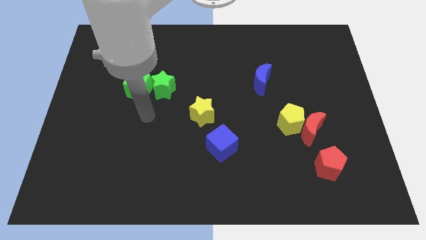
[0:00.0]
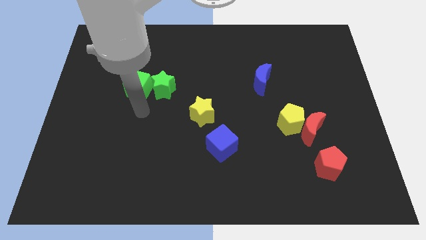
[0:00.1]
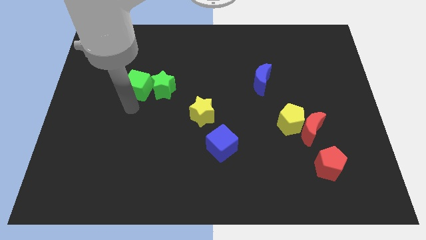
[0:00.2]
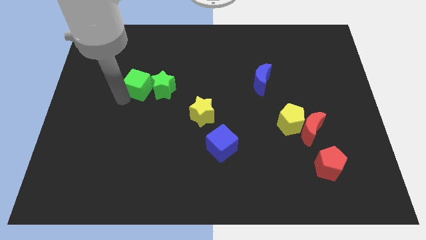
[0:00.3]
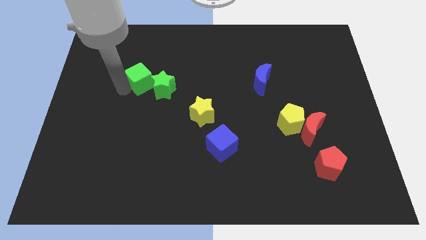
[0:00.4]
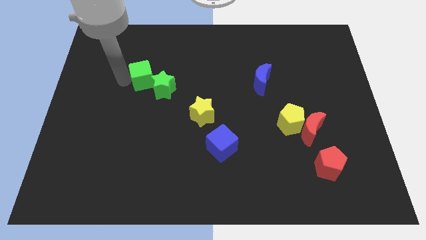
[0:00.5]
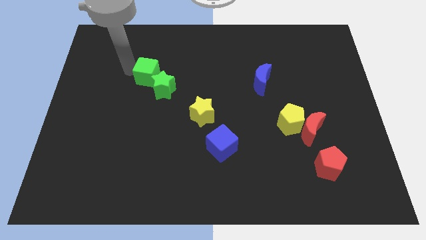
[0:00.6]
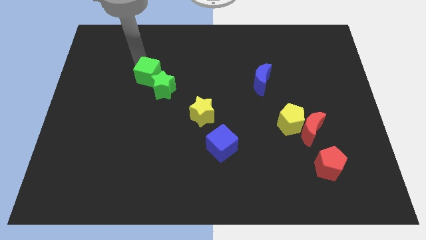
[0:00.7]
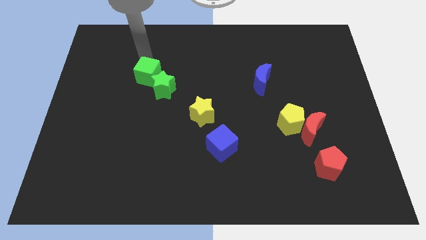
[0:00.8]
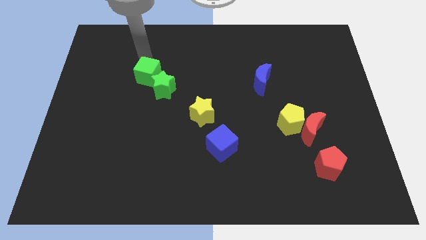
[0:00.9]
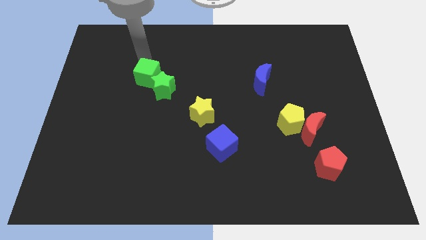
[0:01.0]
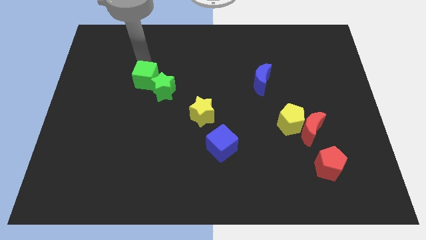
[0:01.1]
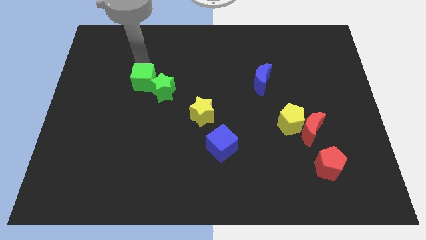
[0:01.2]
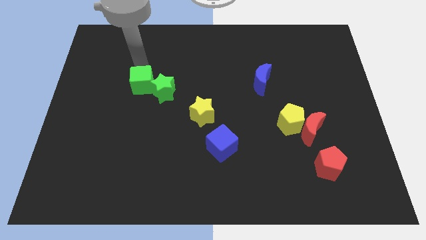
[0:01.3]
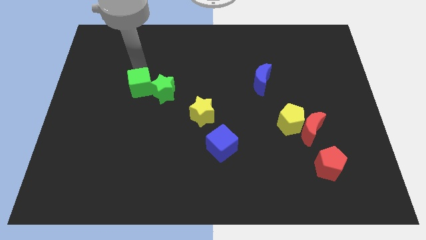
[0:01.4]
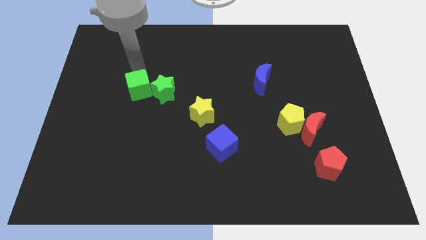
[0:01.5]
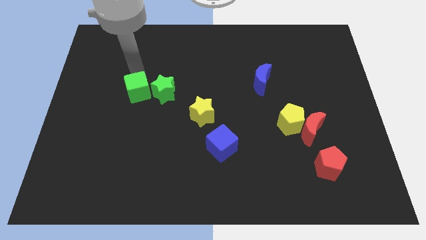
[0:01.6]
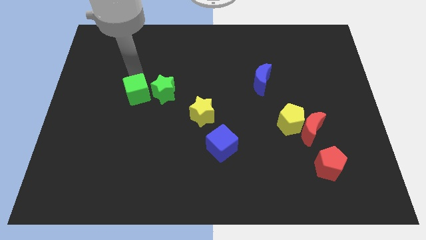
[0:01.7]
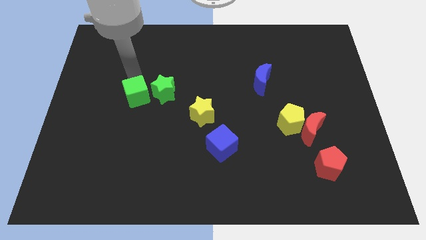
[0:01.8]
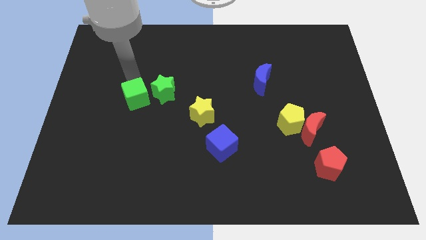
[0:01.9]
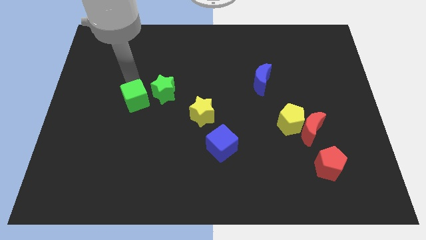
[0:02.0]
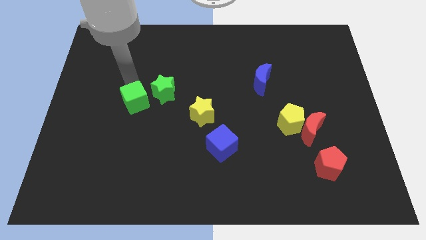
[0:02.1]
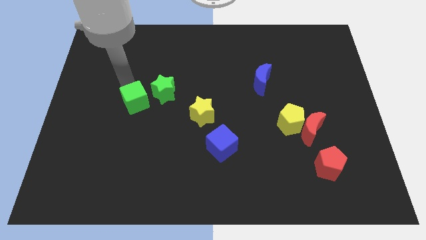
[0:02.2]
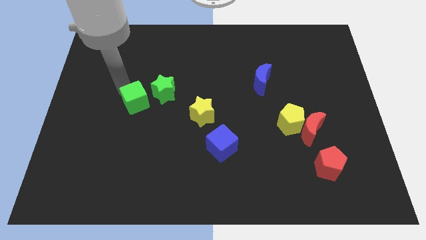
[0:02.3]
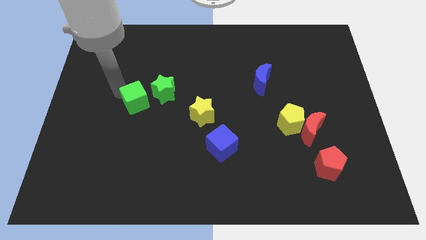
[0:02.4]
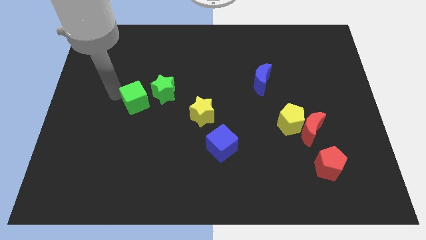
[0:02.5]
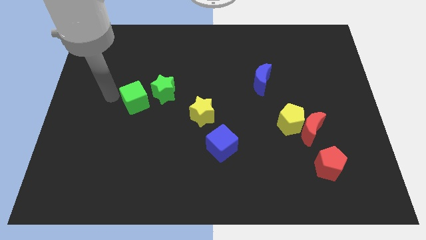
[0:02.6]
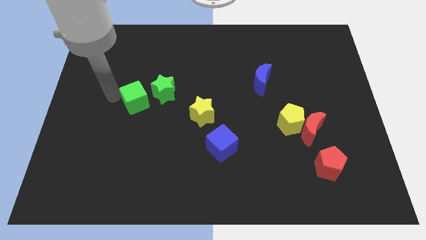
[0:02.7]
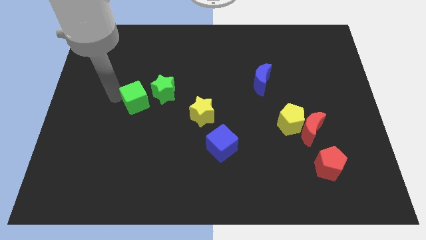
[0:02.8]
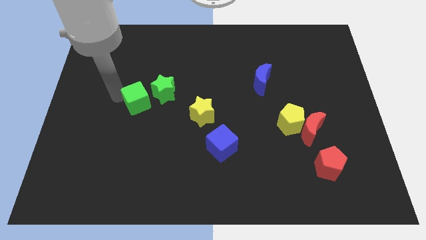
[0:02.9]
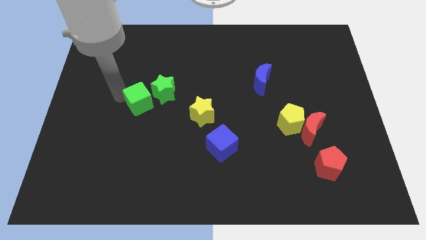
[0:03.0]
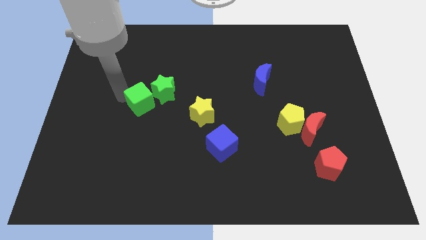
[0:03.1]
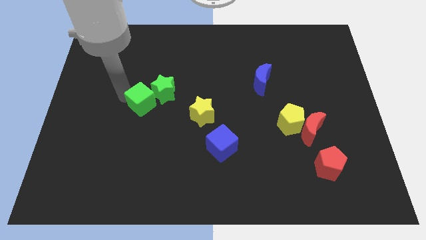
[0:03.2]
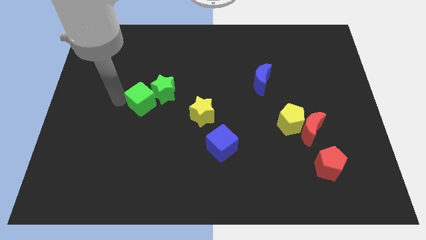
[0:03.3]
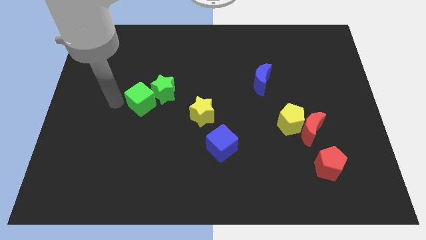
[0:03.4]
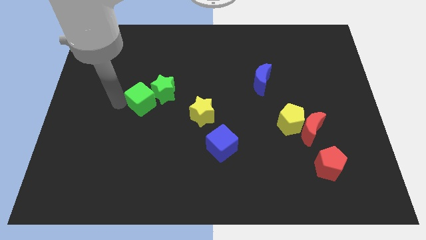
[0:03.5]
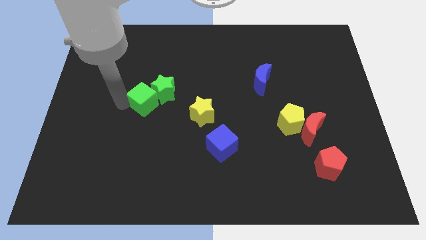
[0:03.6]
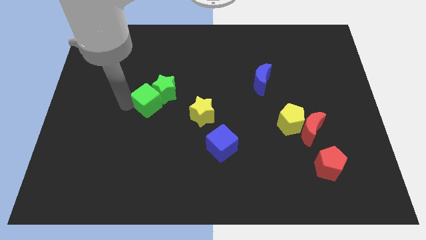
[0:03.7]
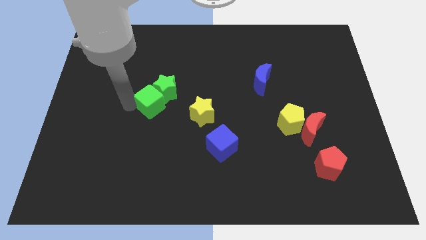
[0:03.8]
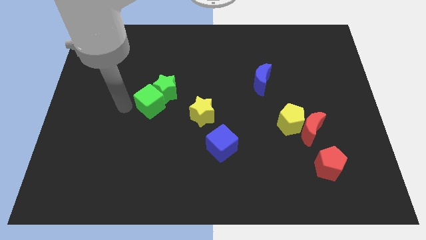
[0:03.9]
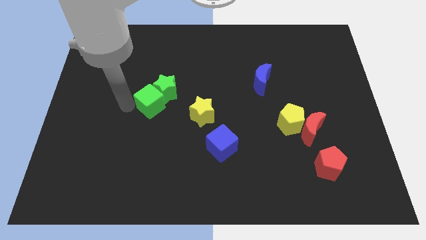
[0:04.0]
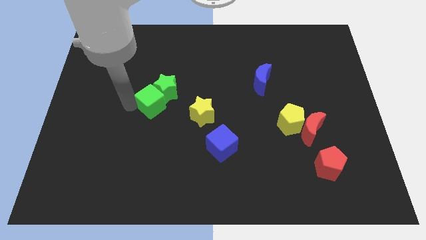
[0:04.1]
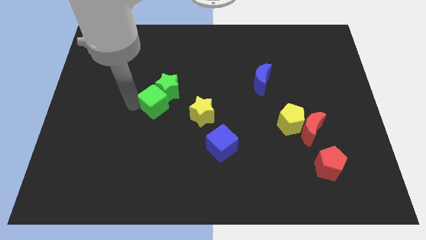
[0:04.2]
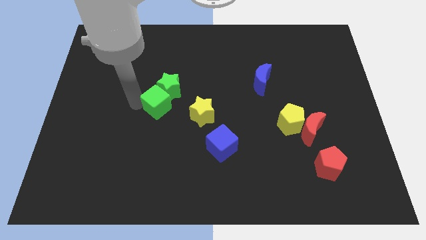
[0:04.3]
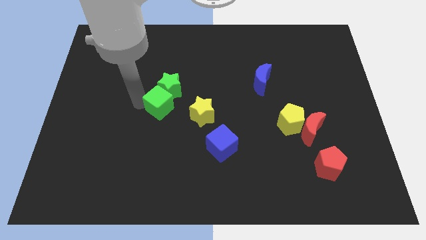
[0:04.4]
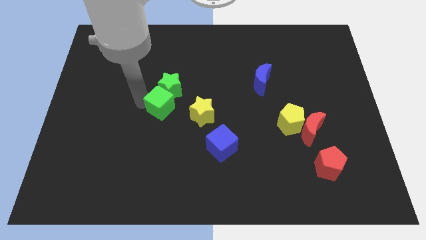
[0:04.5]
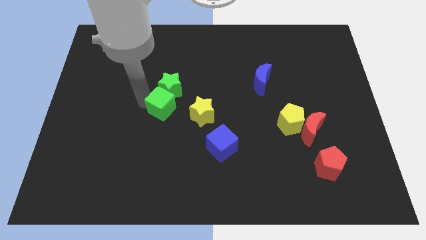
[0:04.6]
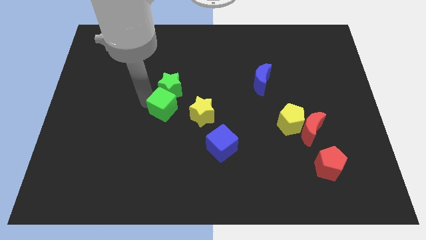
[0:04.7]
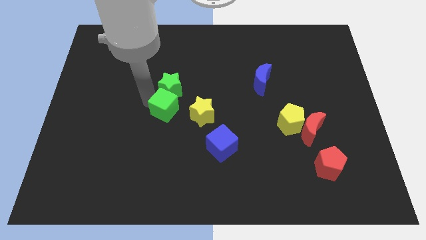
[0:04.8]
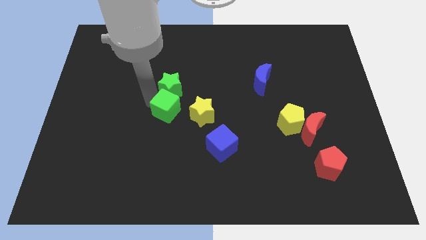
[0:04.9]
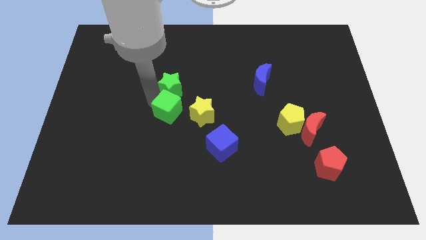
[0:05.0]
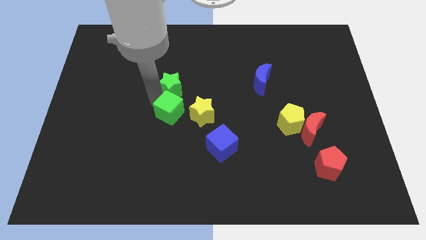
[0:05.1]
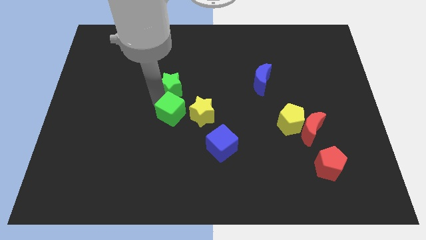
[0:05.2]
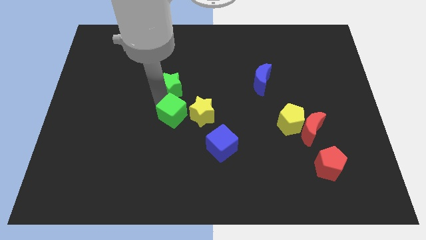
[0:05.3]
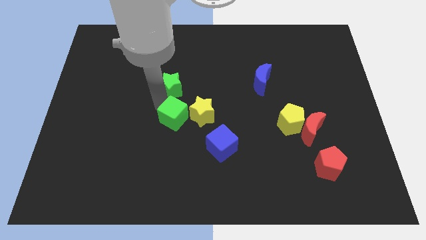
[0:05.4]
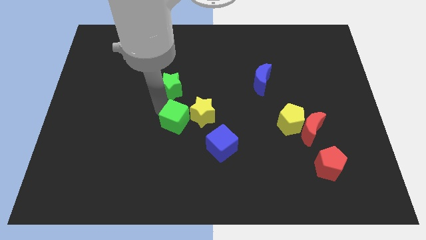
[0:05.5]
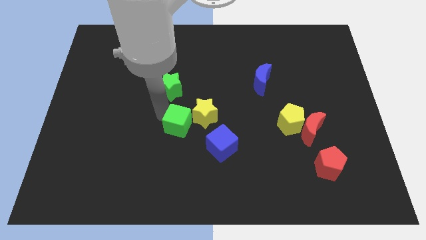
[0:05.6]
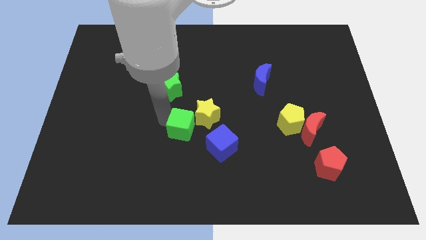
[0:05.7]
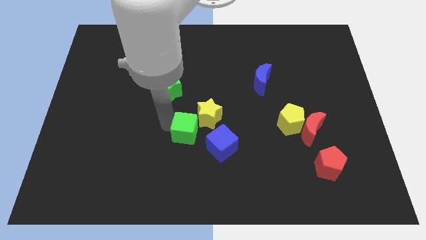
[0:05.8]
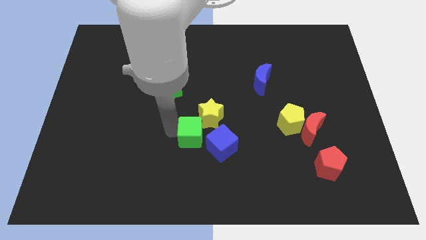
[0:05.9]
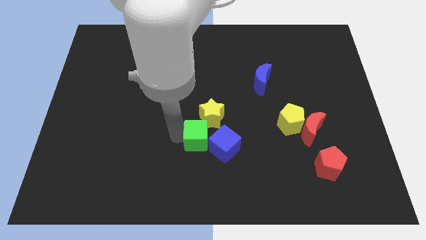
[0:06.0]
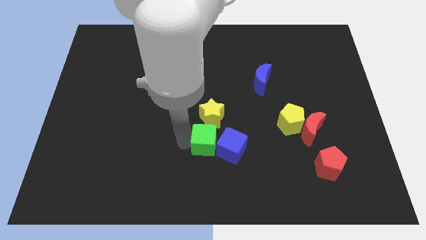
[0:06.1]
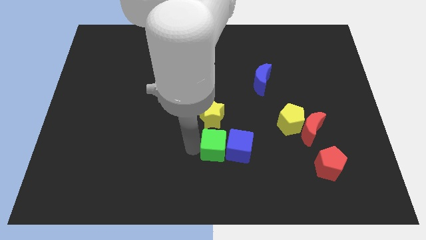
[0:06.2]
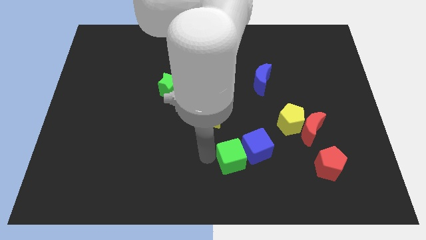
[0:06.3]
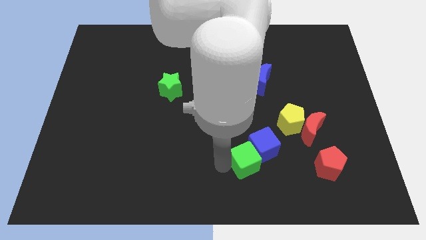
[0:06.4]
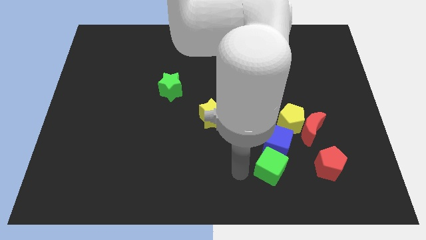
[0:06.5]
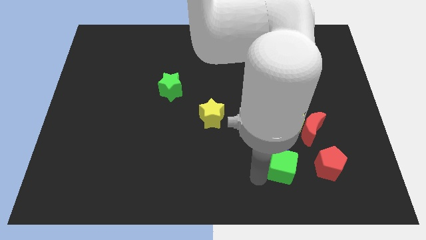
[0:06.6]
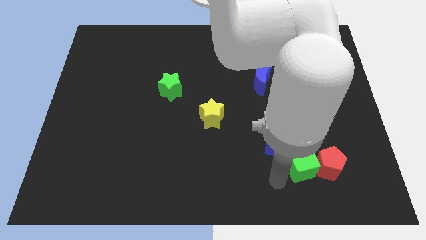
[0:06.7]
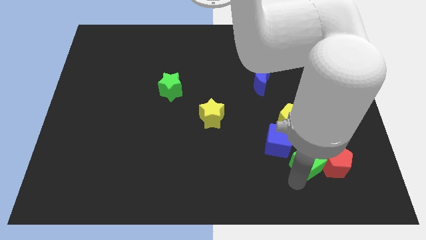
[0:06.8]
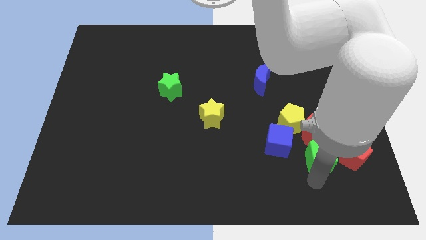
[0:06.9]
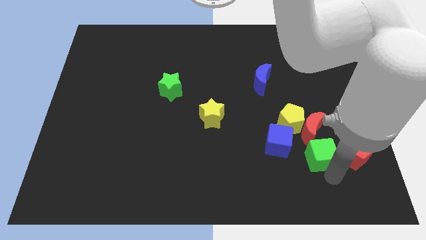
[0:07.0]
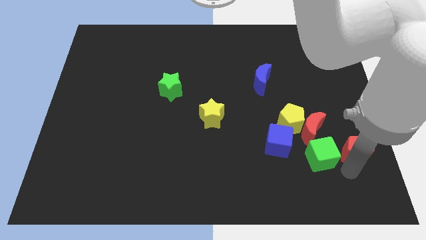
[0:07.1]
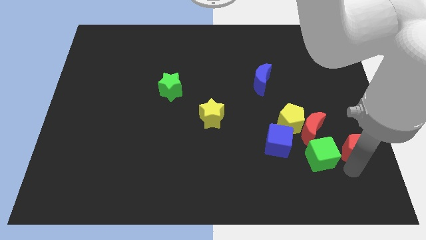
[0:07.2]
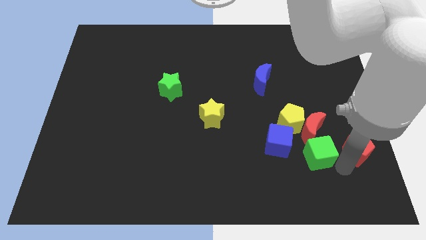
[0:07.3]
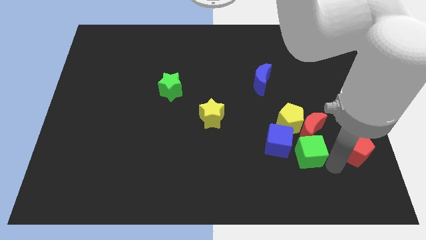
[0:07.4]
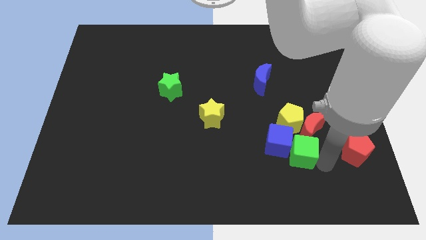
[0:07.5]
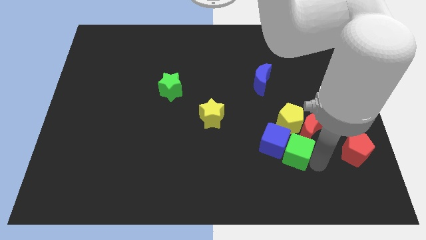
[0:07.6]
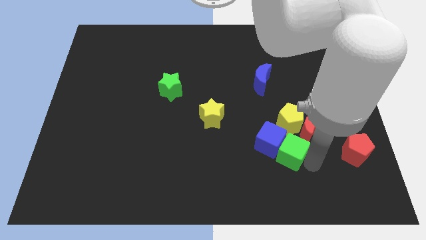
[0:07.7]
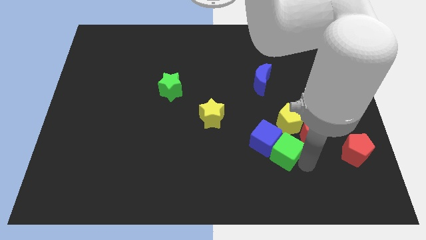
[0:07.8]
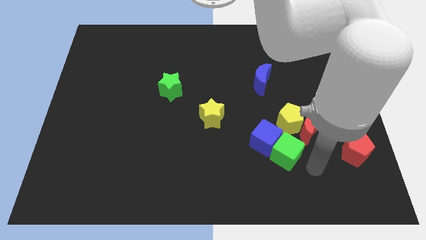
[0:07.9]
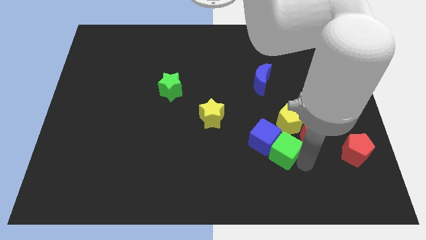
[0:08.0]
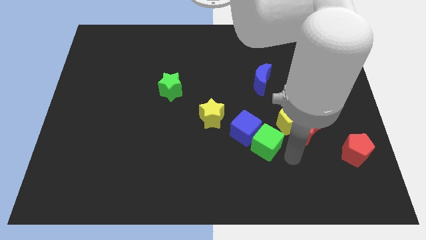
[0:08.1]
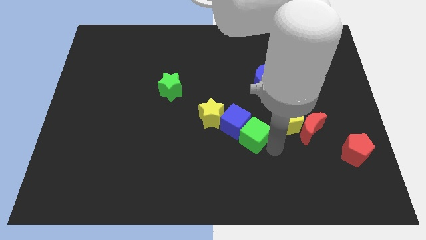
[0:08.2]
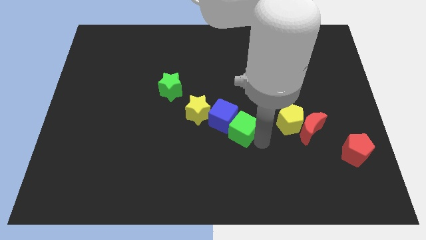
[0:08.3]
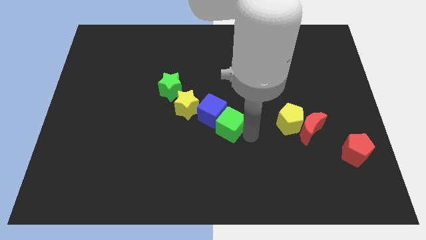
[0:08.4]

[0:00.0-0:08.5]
move the green cube somewhat to the right
